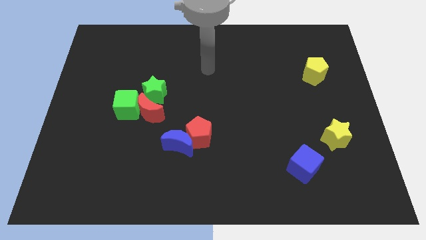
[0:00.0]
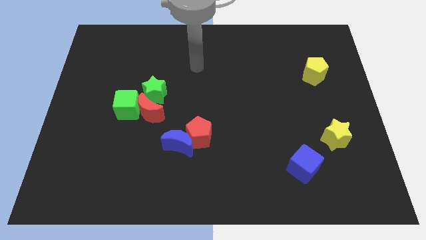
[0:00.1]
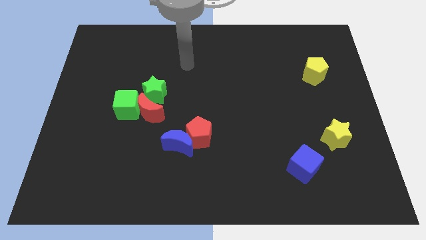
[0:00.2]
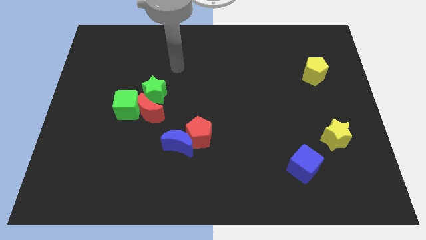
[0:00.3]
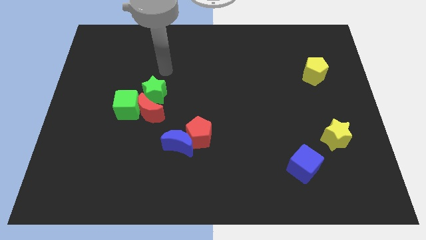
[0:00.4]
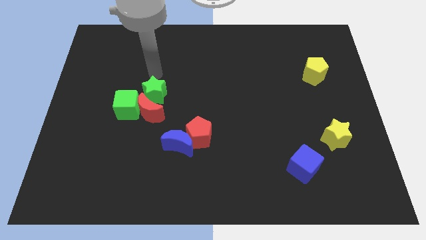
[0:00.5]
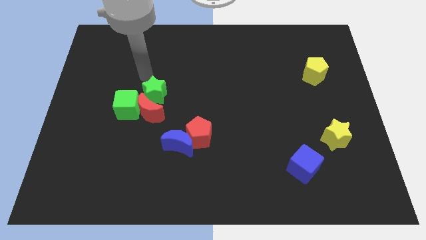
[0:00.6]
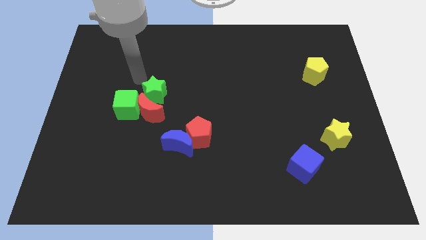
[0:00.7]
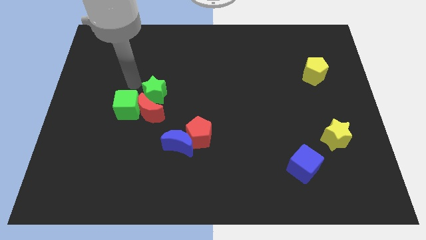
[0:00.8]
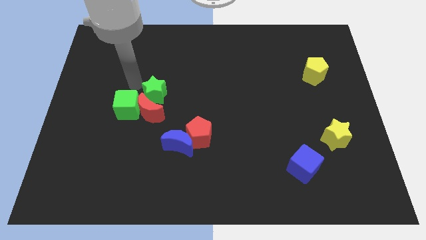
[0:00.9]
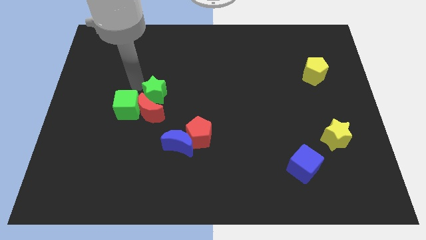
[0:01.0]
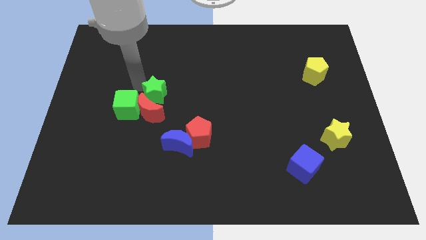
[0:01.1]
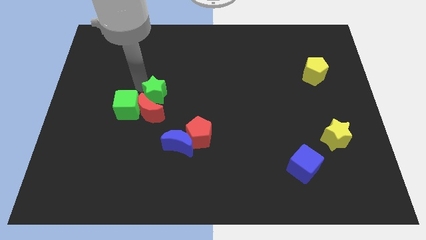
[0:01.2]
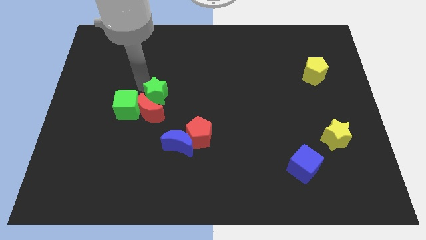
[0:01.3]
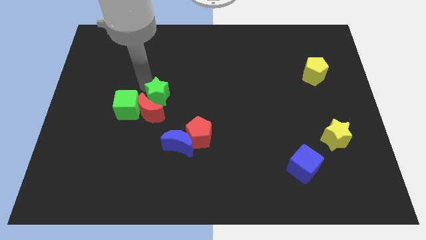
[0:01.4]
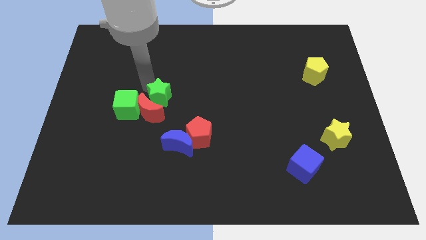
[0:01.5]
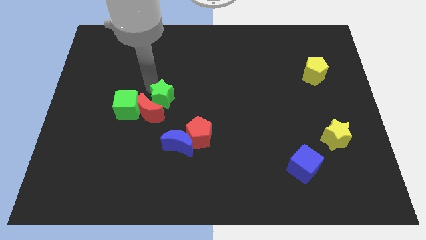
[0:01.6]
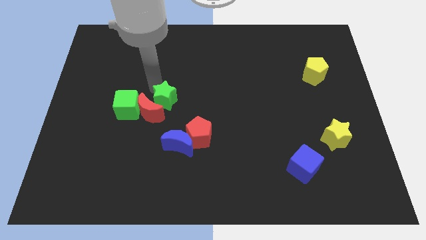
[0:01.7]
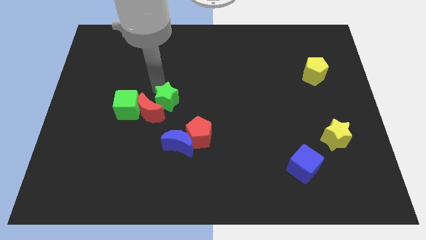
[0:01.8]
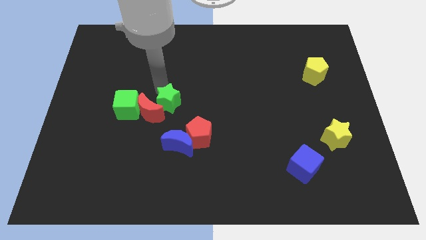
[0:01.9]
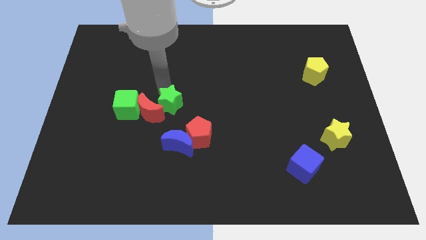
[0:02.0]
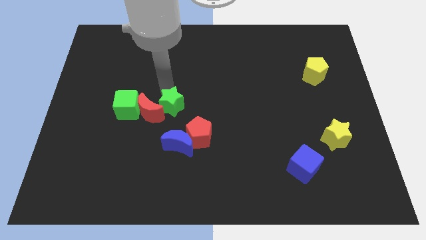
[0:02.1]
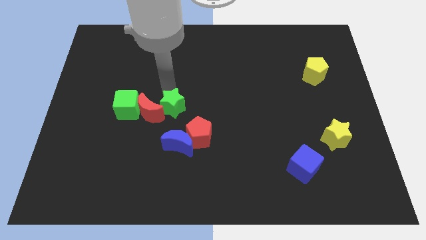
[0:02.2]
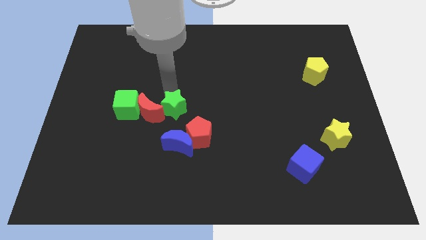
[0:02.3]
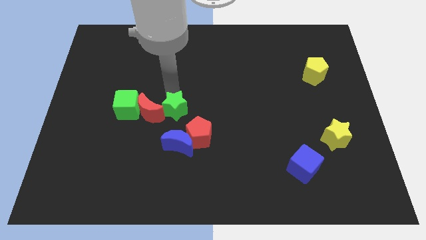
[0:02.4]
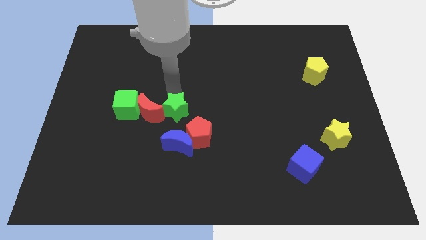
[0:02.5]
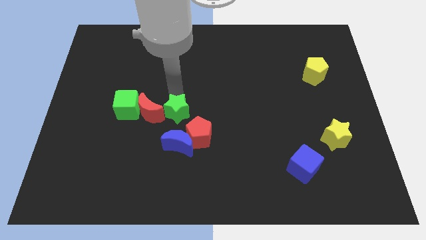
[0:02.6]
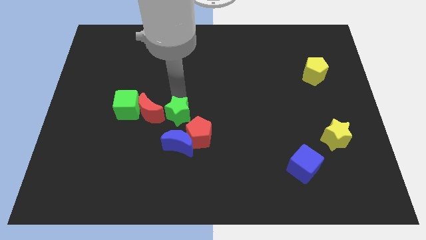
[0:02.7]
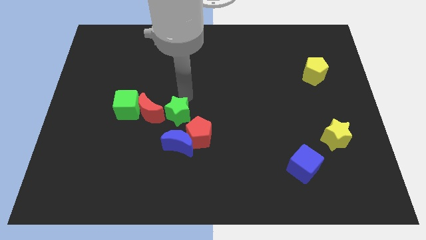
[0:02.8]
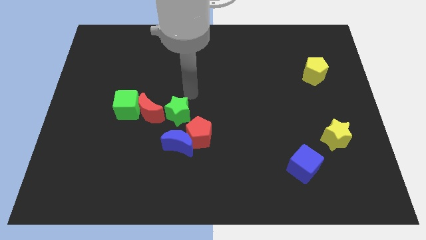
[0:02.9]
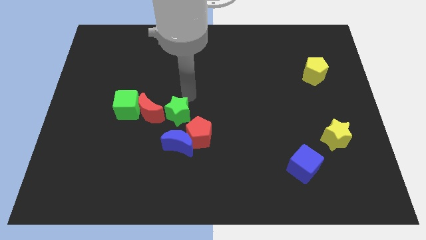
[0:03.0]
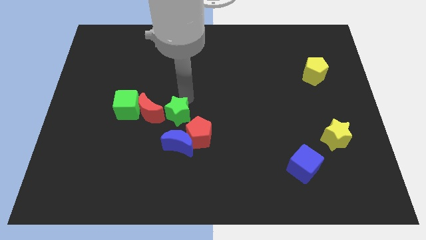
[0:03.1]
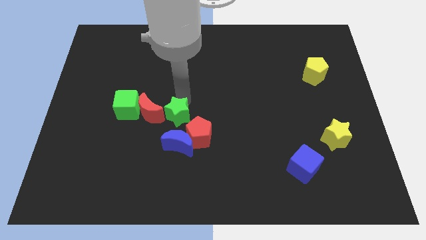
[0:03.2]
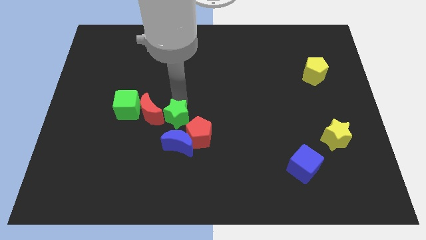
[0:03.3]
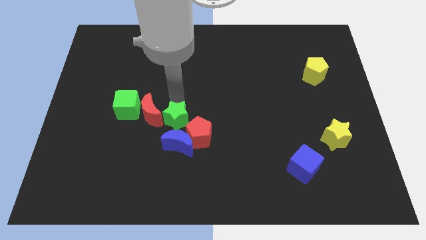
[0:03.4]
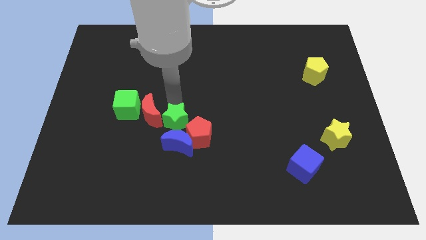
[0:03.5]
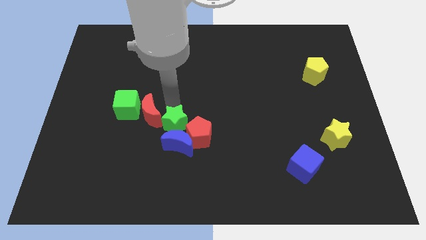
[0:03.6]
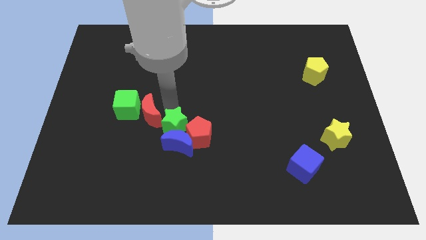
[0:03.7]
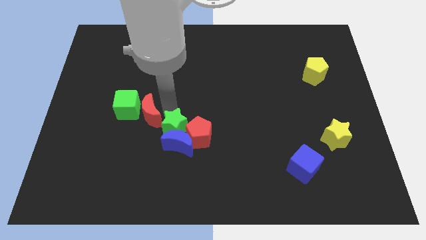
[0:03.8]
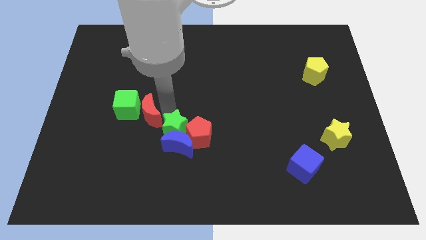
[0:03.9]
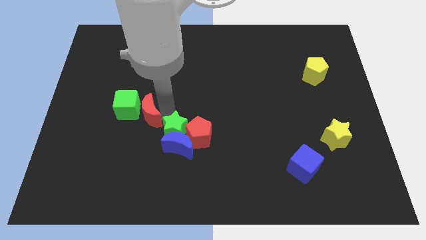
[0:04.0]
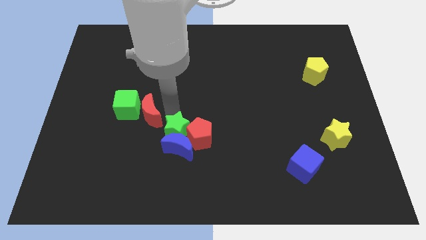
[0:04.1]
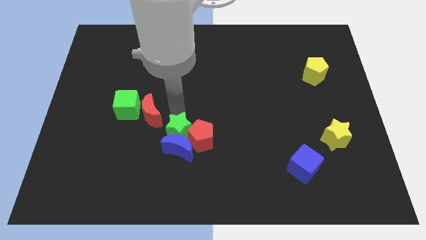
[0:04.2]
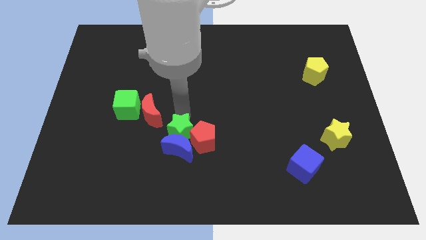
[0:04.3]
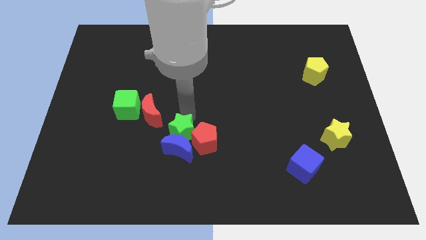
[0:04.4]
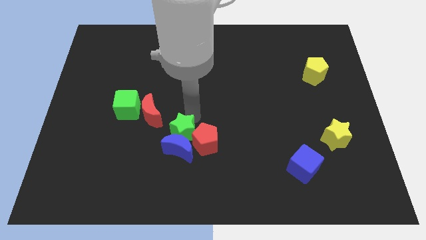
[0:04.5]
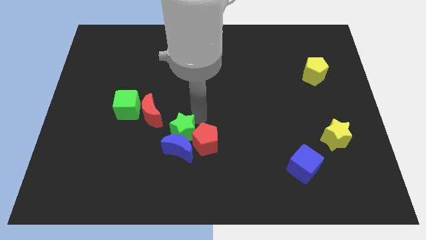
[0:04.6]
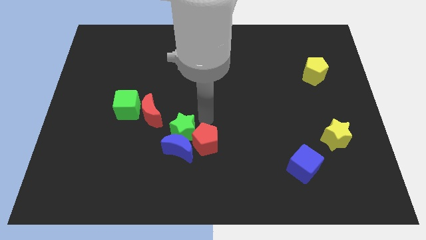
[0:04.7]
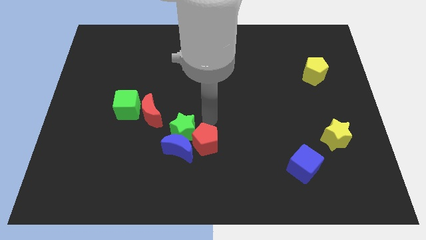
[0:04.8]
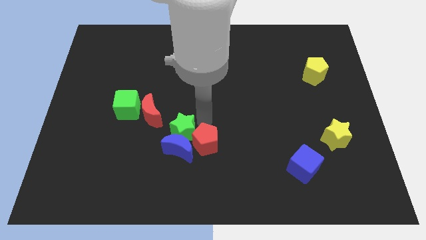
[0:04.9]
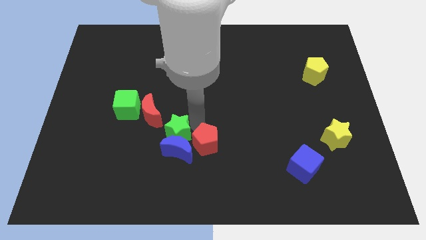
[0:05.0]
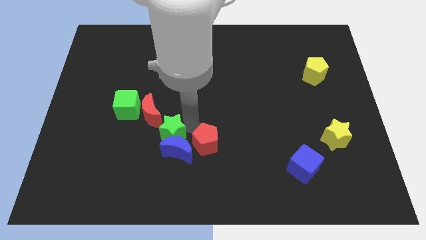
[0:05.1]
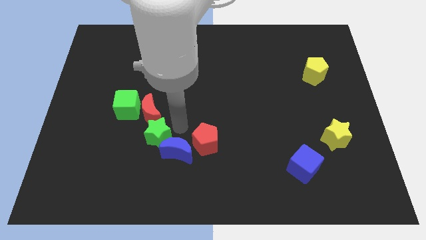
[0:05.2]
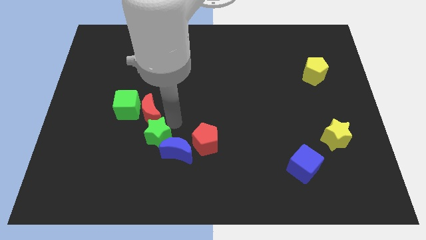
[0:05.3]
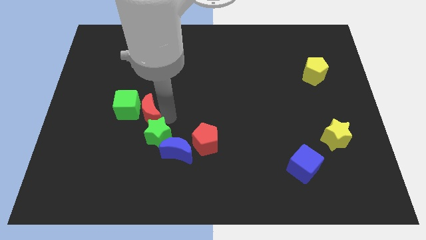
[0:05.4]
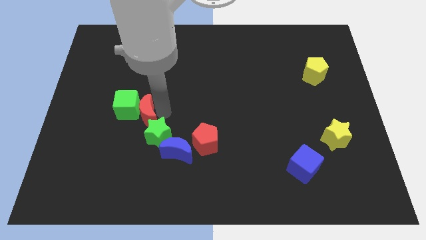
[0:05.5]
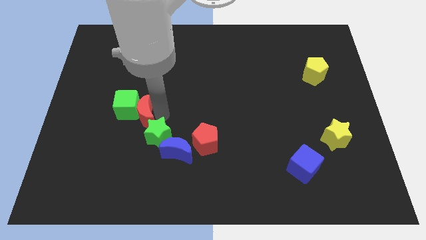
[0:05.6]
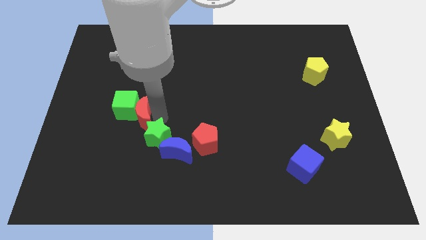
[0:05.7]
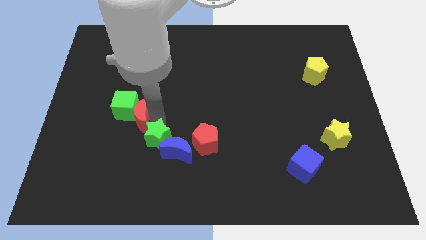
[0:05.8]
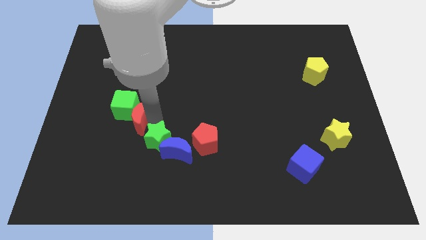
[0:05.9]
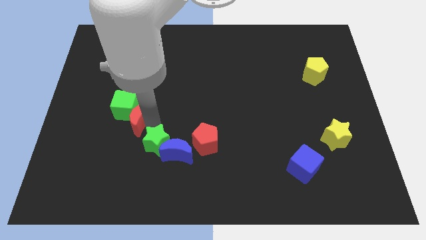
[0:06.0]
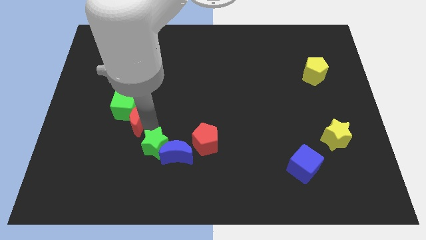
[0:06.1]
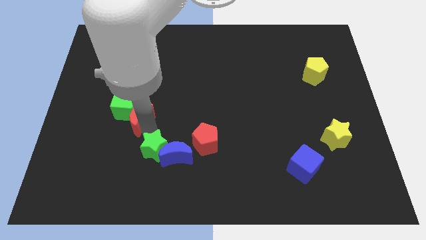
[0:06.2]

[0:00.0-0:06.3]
move the green star to the bottom left of the blue moon

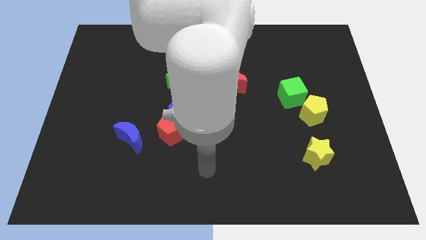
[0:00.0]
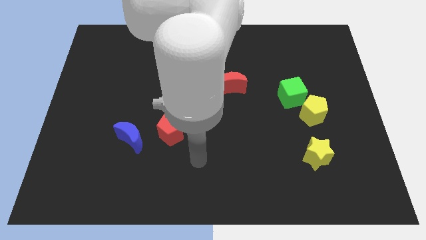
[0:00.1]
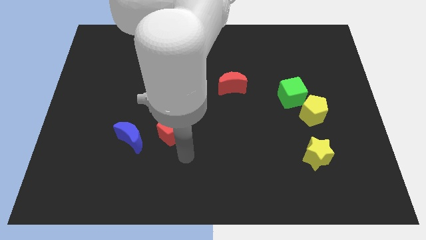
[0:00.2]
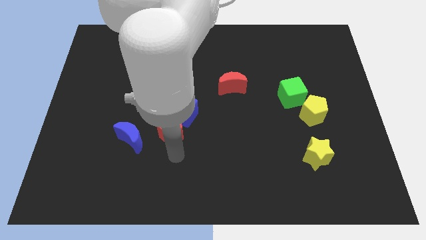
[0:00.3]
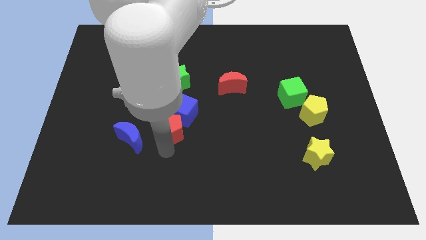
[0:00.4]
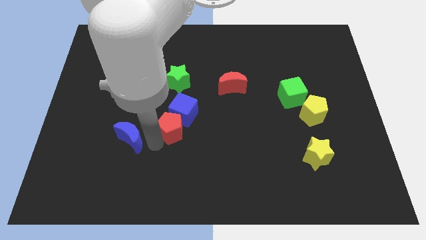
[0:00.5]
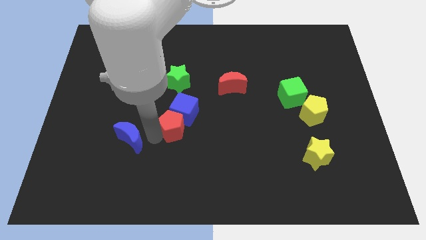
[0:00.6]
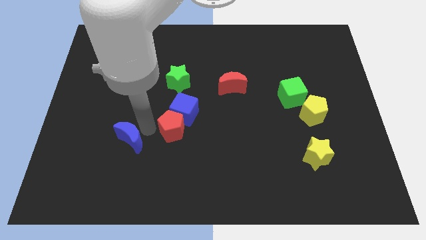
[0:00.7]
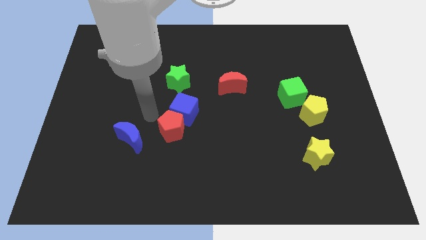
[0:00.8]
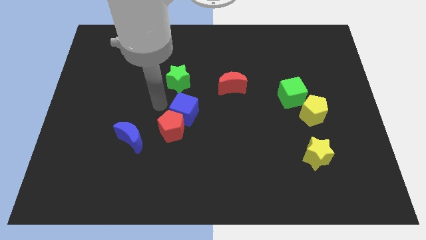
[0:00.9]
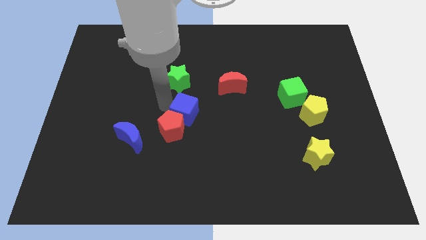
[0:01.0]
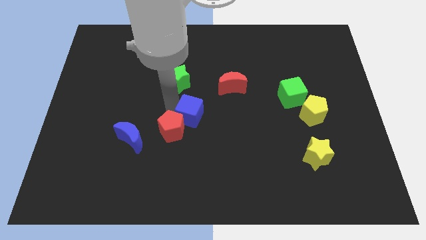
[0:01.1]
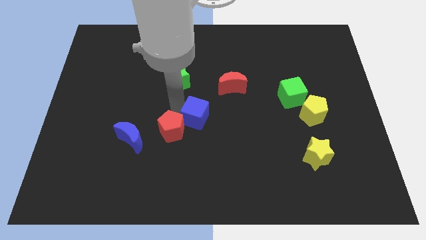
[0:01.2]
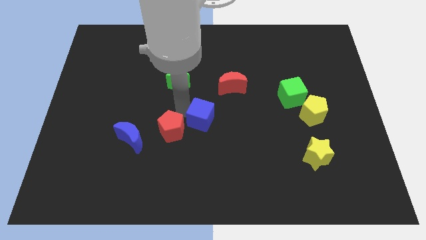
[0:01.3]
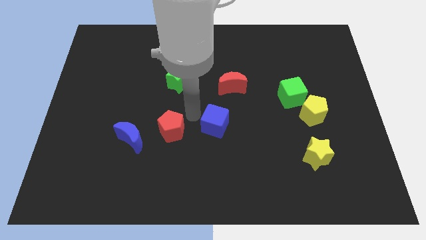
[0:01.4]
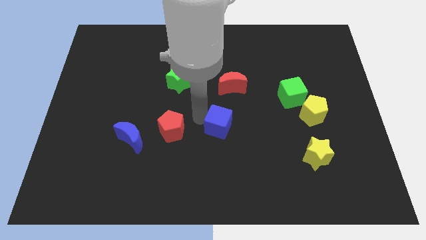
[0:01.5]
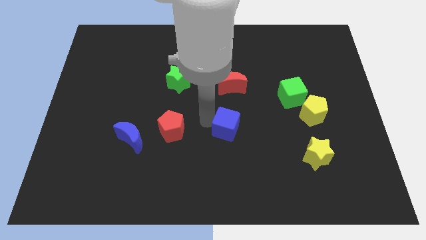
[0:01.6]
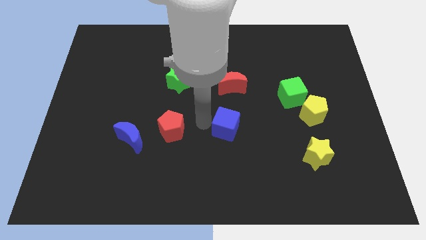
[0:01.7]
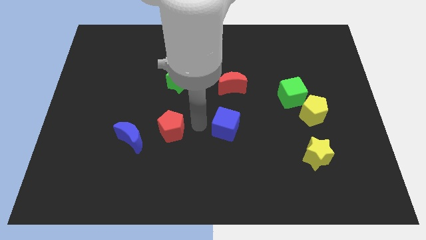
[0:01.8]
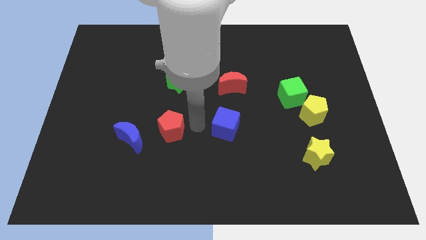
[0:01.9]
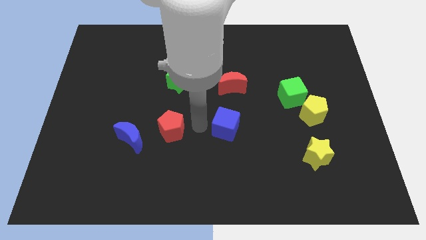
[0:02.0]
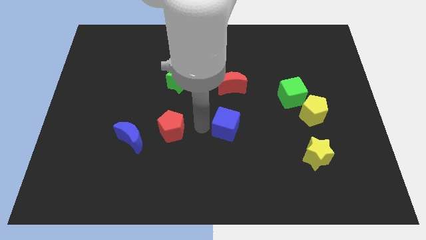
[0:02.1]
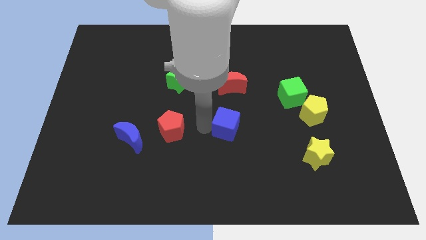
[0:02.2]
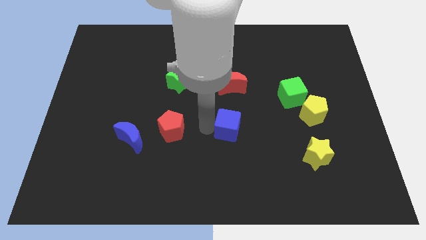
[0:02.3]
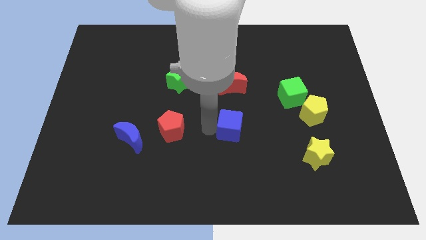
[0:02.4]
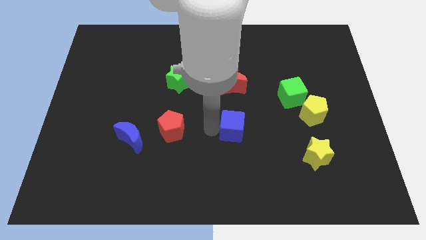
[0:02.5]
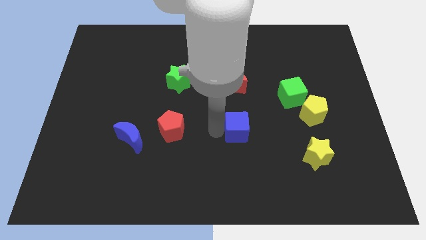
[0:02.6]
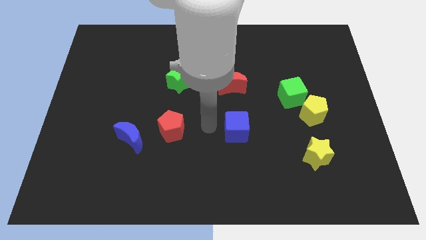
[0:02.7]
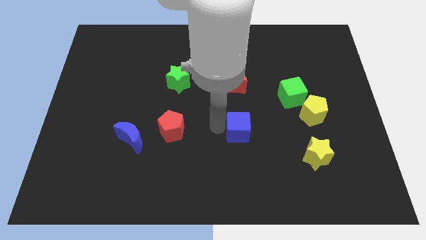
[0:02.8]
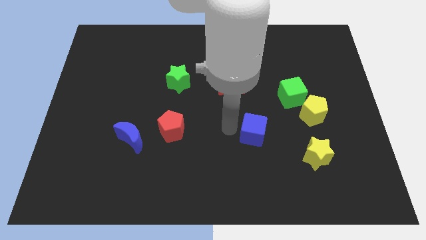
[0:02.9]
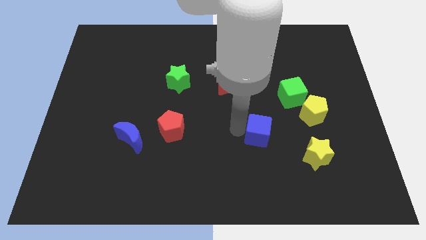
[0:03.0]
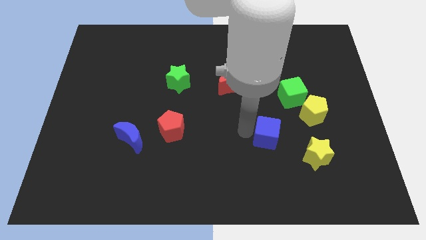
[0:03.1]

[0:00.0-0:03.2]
slide the blue cube to the top left side of the yellow star
